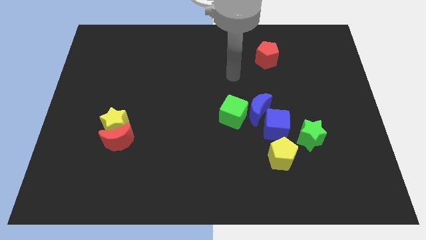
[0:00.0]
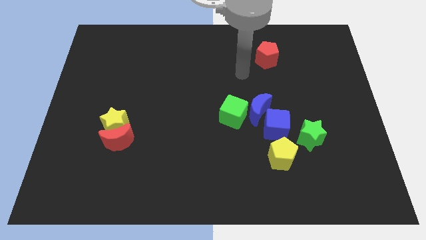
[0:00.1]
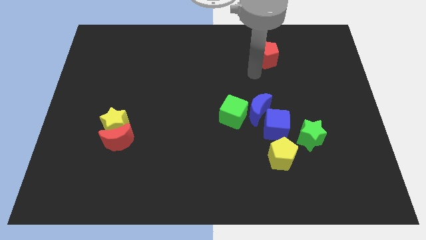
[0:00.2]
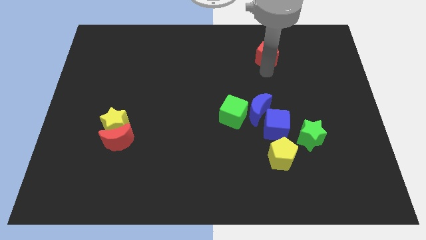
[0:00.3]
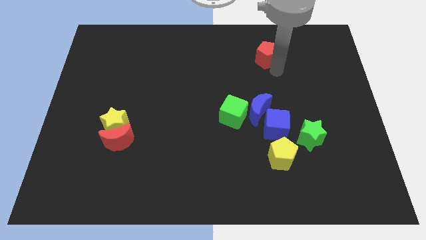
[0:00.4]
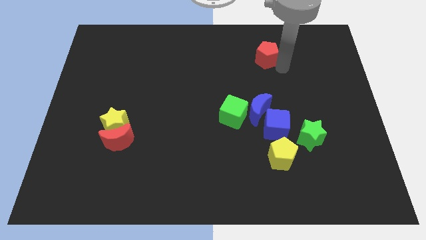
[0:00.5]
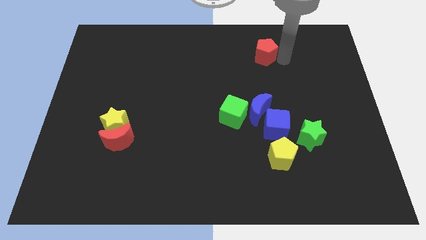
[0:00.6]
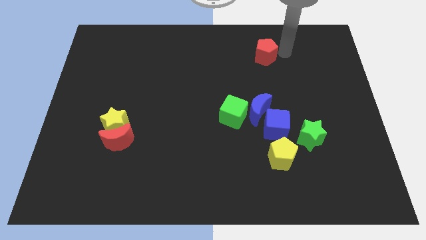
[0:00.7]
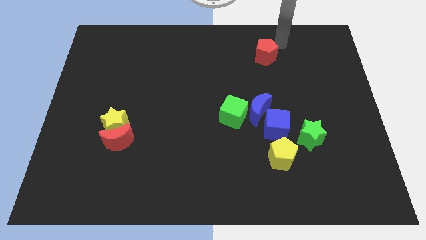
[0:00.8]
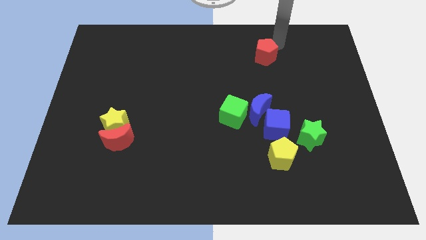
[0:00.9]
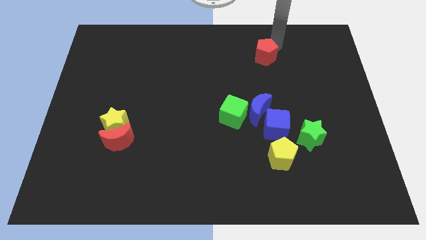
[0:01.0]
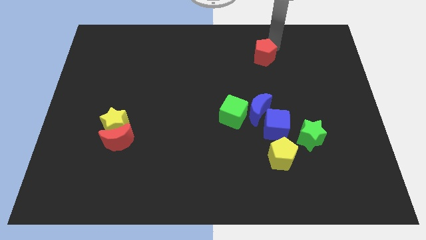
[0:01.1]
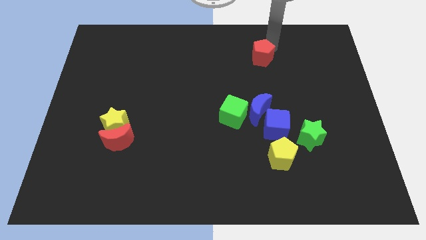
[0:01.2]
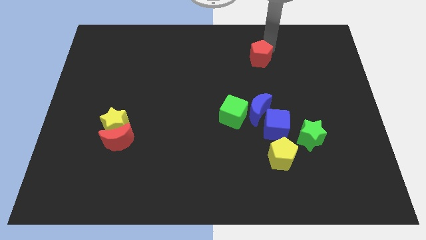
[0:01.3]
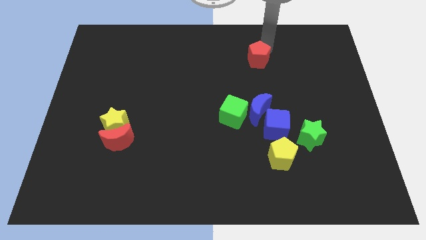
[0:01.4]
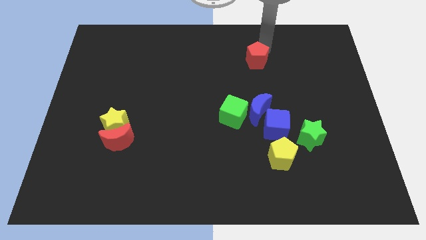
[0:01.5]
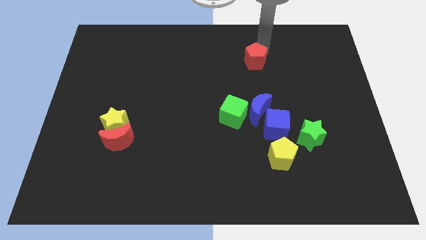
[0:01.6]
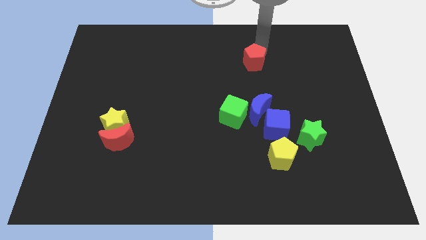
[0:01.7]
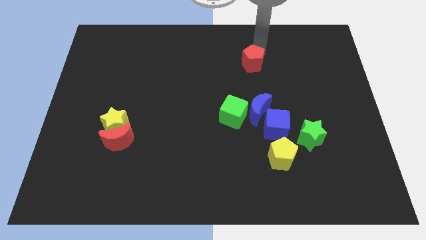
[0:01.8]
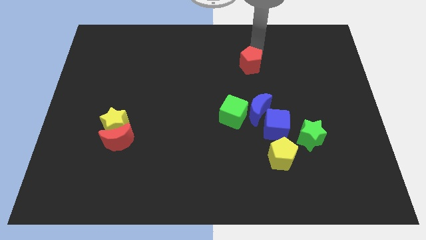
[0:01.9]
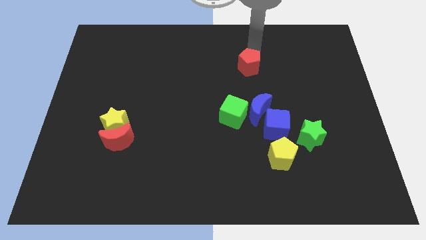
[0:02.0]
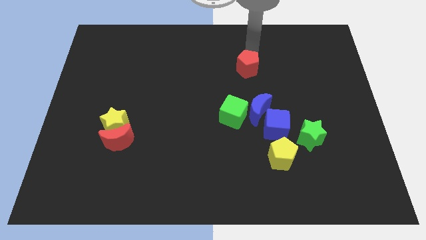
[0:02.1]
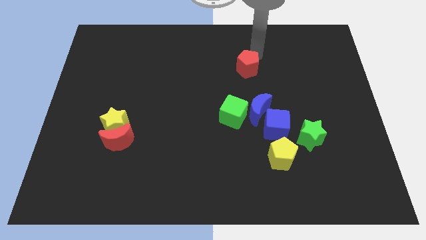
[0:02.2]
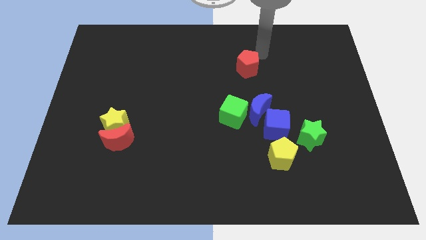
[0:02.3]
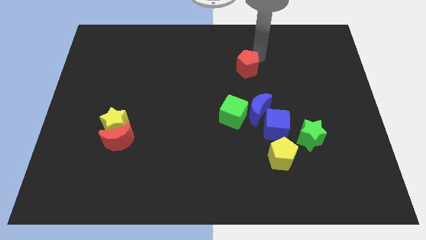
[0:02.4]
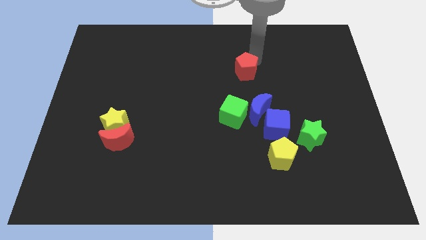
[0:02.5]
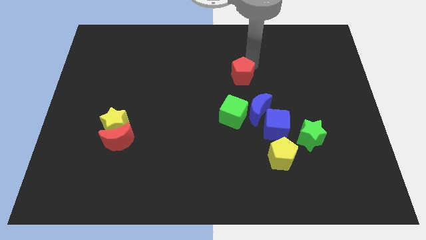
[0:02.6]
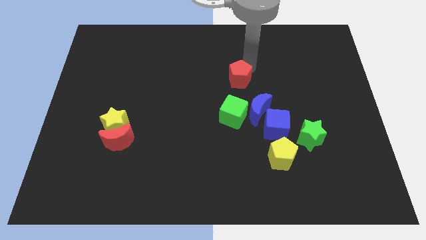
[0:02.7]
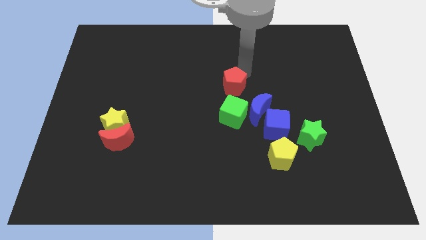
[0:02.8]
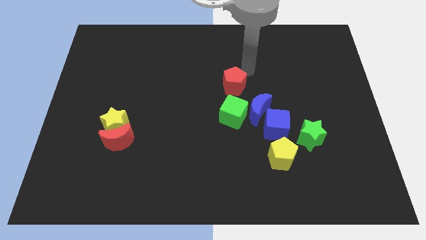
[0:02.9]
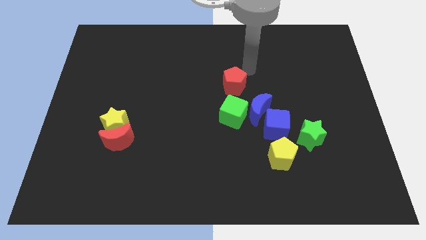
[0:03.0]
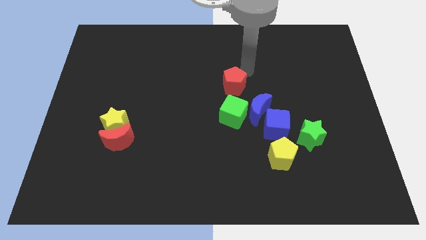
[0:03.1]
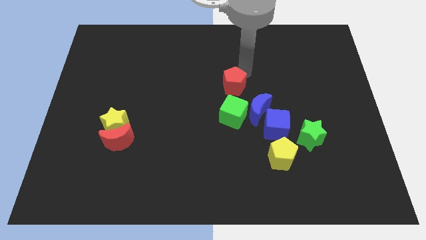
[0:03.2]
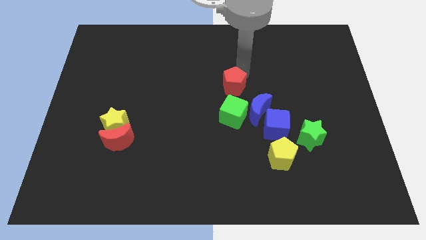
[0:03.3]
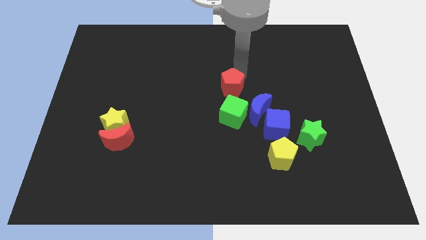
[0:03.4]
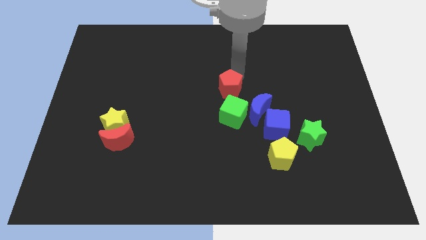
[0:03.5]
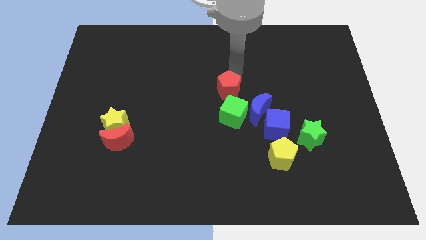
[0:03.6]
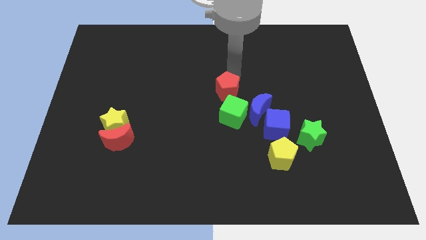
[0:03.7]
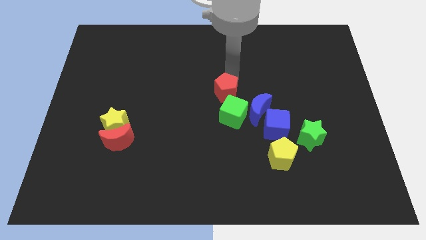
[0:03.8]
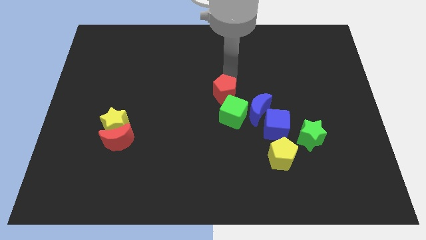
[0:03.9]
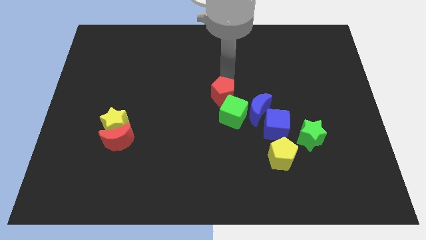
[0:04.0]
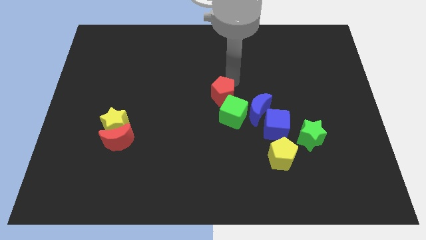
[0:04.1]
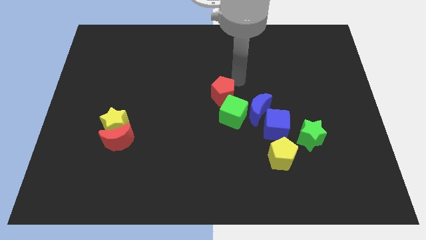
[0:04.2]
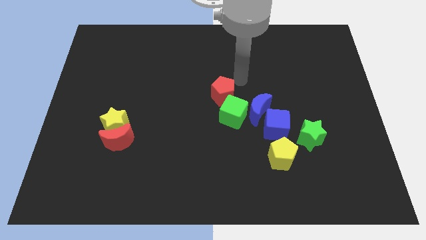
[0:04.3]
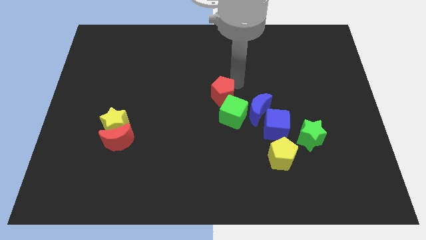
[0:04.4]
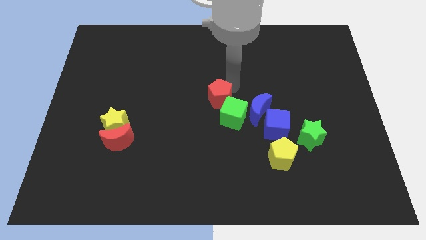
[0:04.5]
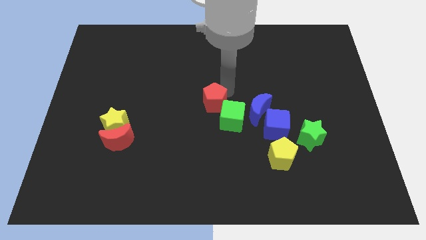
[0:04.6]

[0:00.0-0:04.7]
slide the red pentagon downwards and to the left

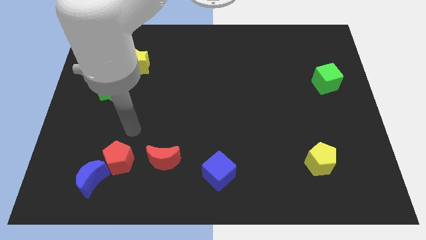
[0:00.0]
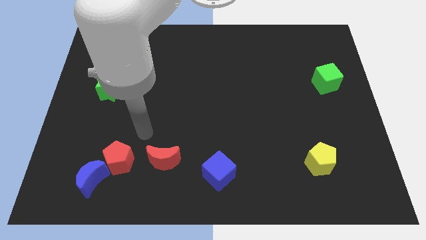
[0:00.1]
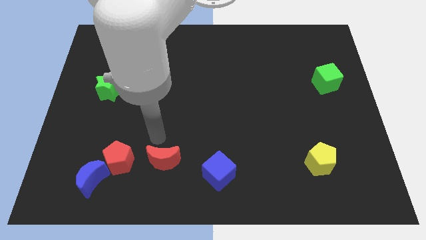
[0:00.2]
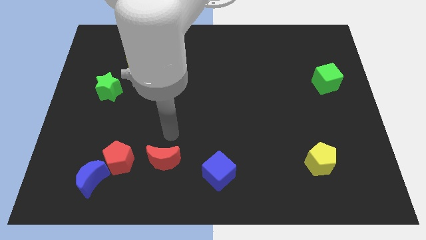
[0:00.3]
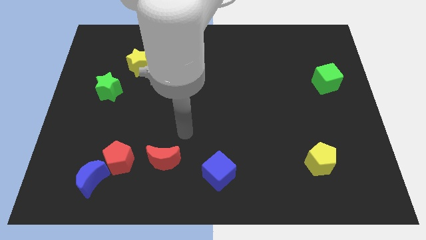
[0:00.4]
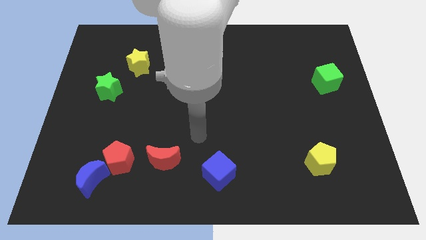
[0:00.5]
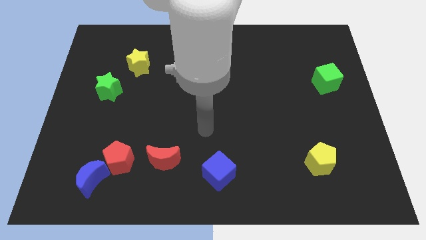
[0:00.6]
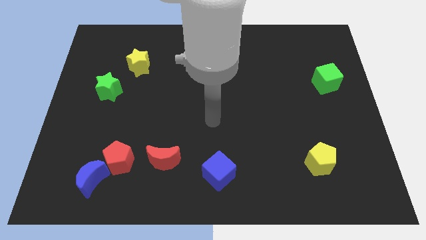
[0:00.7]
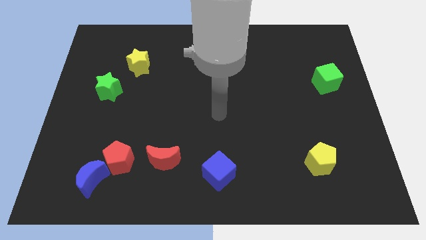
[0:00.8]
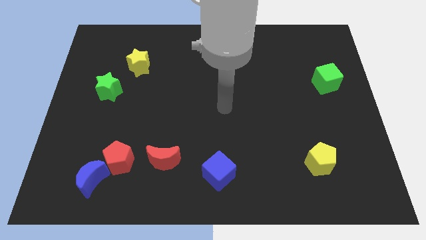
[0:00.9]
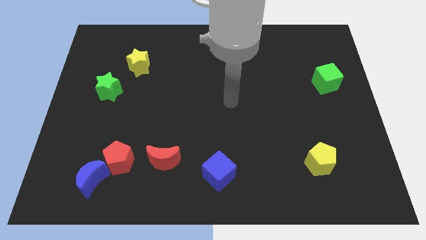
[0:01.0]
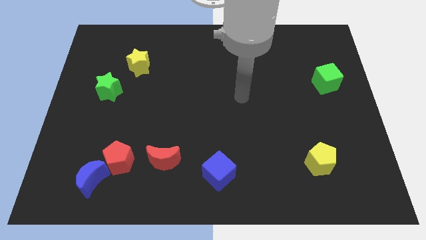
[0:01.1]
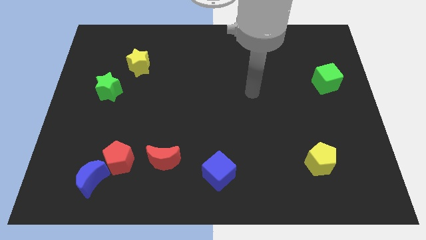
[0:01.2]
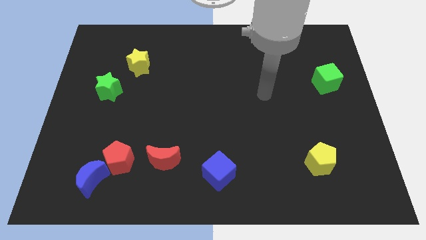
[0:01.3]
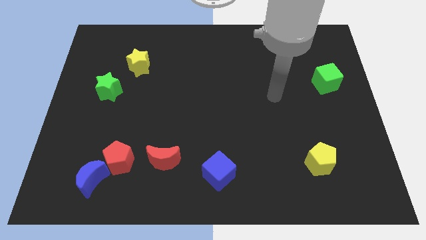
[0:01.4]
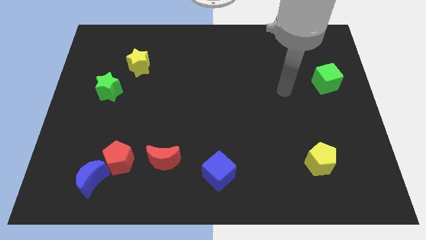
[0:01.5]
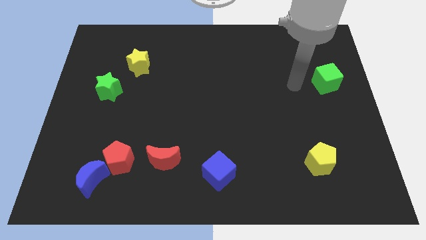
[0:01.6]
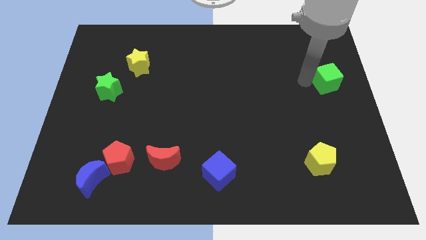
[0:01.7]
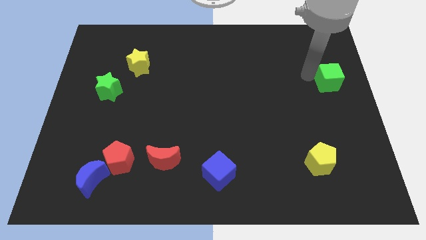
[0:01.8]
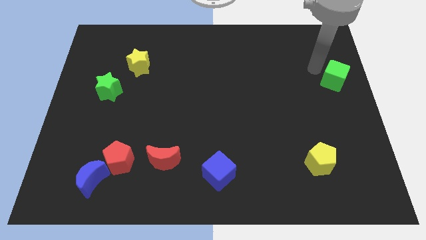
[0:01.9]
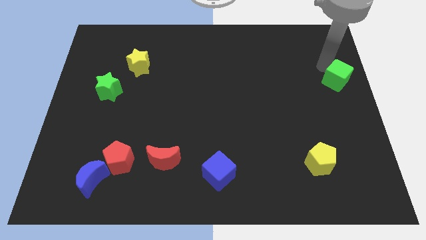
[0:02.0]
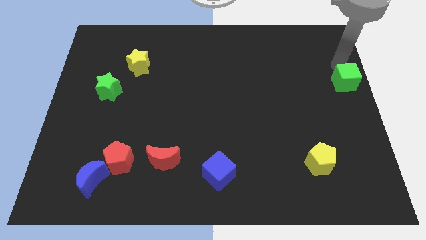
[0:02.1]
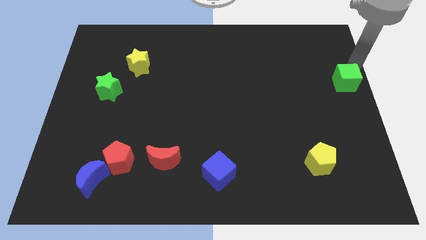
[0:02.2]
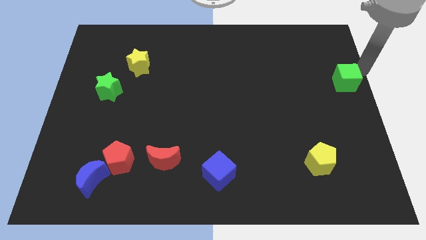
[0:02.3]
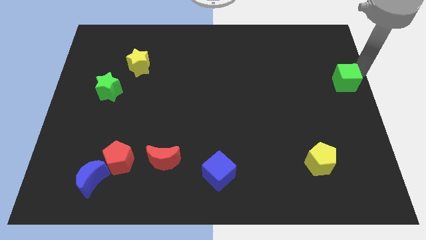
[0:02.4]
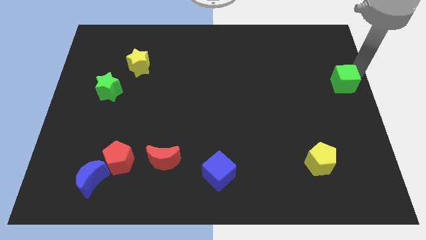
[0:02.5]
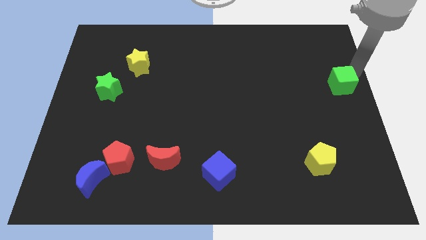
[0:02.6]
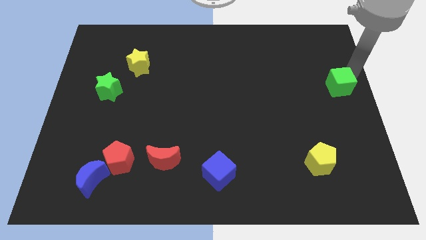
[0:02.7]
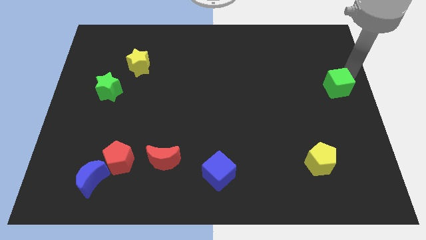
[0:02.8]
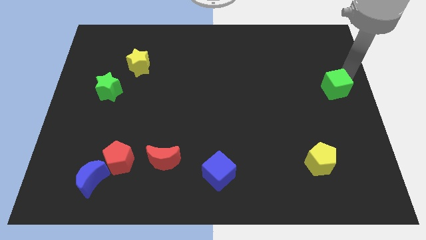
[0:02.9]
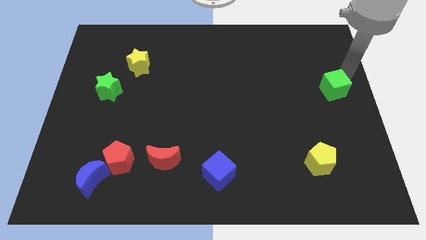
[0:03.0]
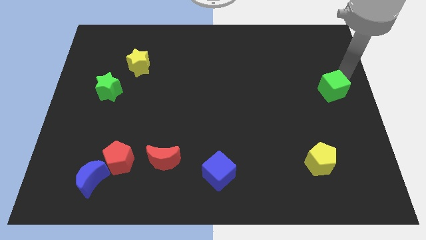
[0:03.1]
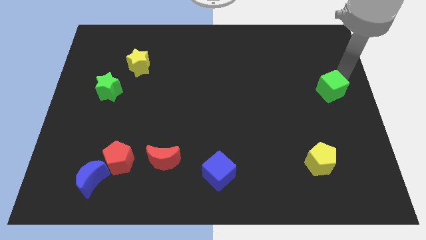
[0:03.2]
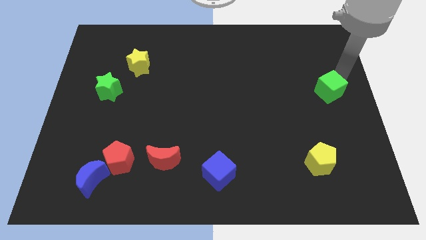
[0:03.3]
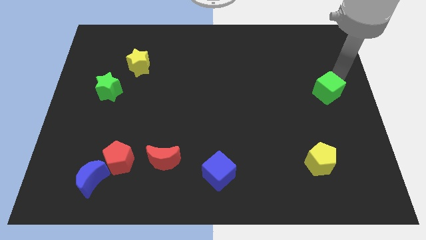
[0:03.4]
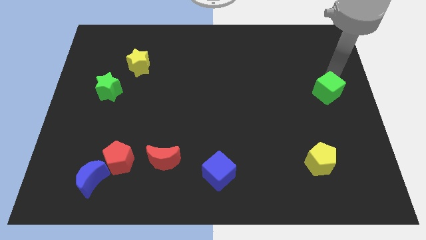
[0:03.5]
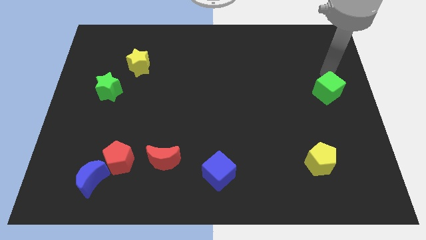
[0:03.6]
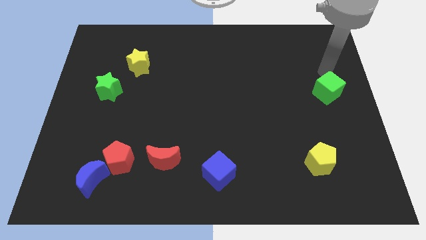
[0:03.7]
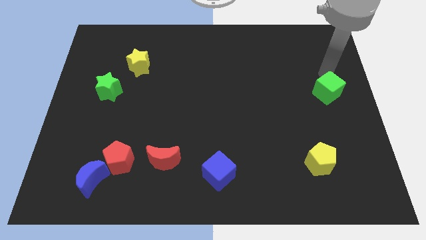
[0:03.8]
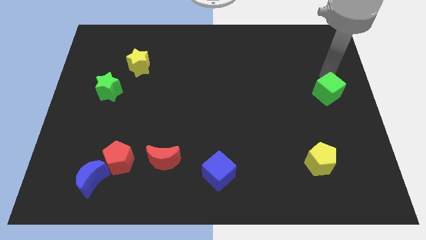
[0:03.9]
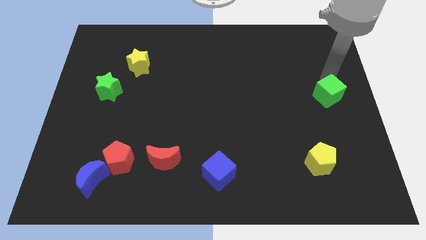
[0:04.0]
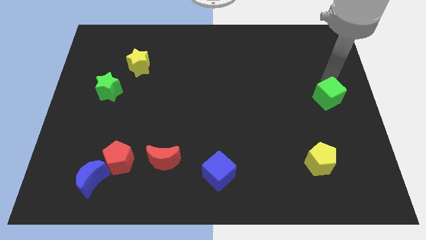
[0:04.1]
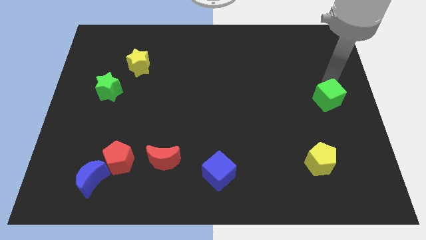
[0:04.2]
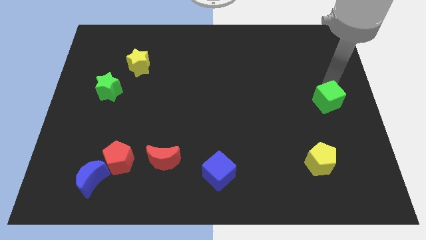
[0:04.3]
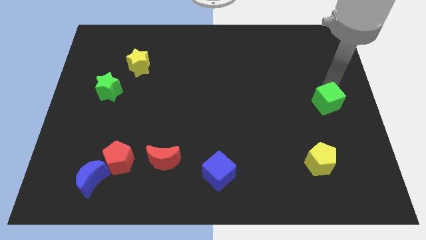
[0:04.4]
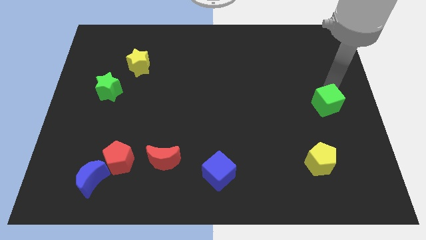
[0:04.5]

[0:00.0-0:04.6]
slightly push the green cube down
